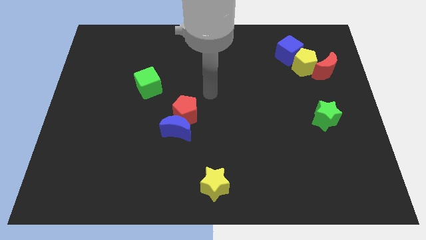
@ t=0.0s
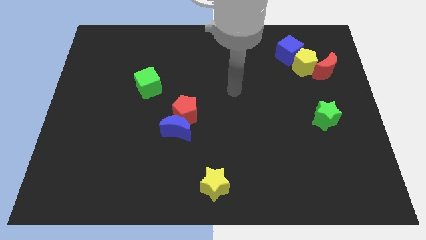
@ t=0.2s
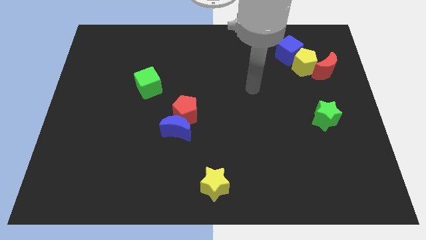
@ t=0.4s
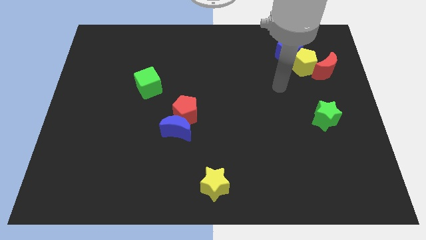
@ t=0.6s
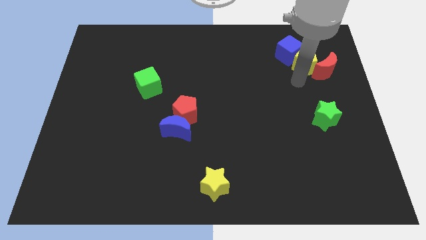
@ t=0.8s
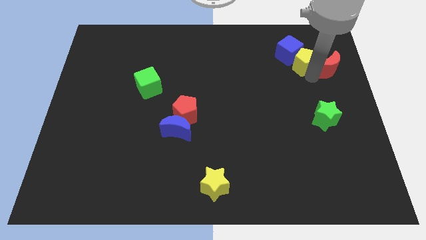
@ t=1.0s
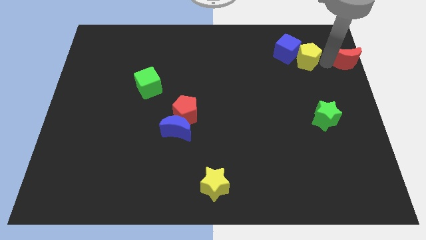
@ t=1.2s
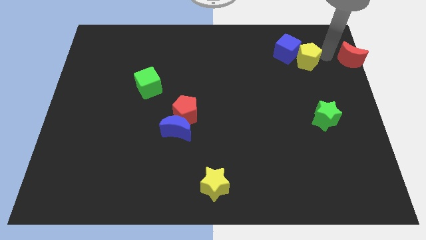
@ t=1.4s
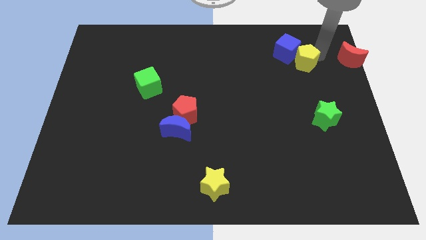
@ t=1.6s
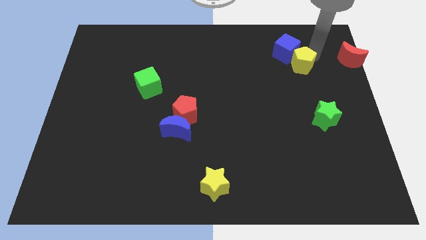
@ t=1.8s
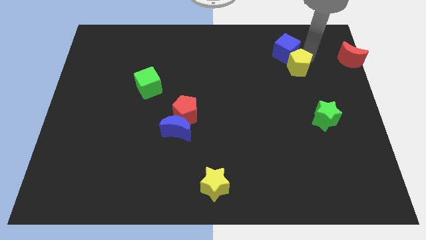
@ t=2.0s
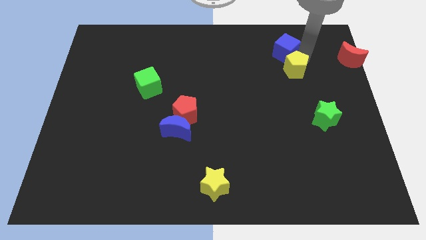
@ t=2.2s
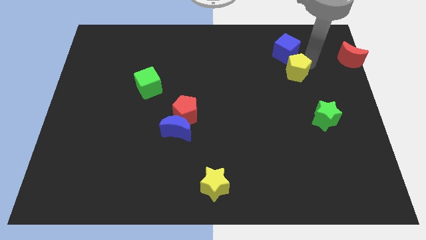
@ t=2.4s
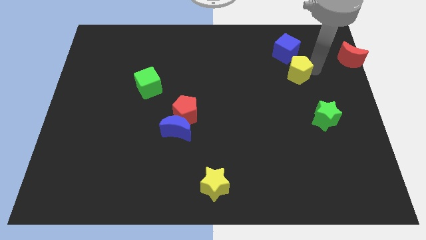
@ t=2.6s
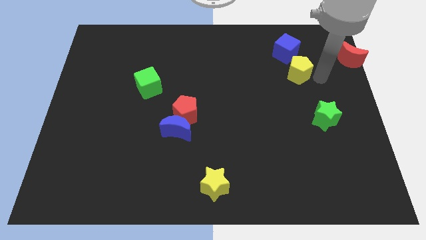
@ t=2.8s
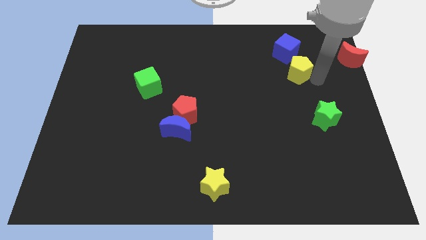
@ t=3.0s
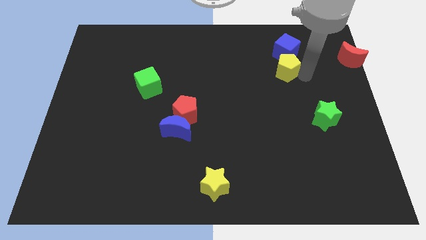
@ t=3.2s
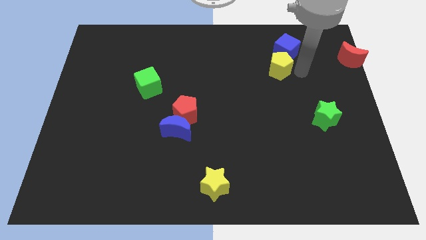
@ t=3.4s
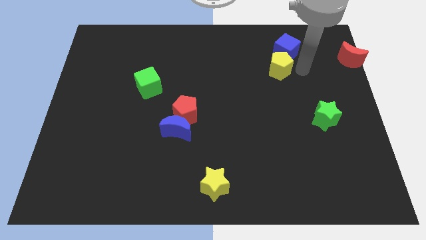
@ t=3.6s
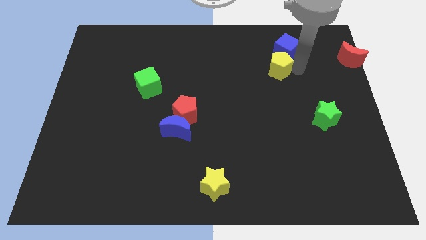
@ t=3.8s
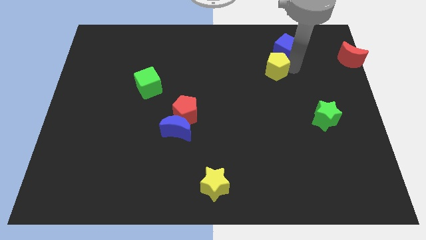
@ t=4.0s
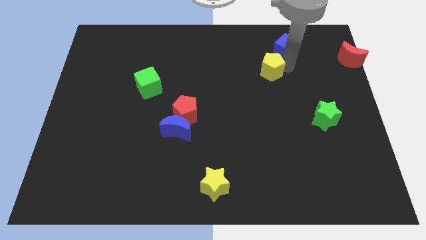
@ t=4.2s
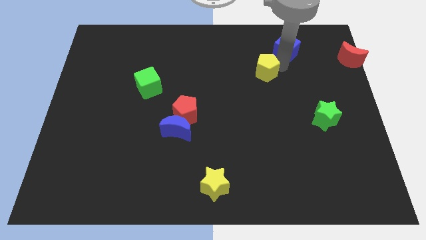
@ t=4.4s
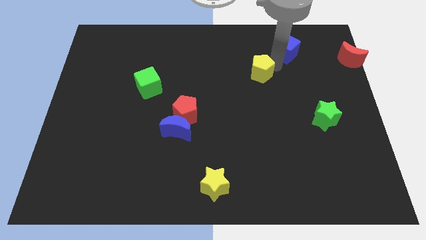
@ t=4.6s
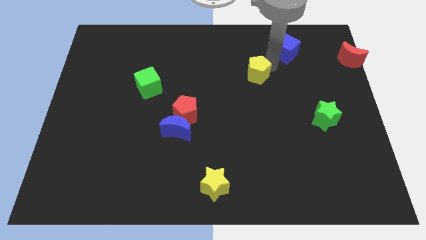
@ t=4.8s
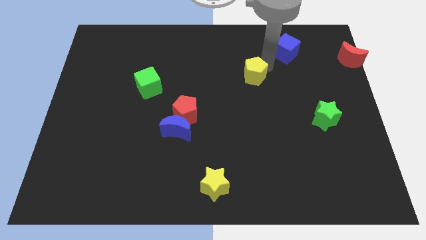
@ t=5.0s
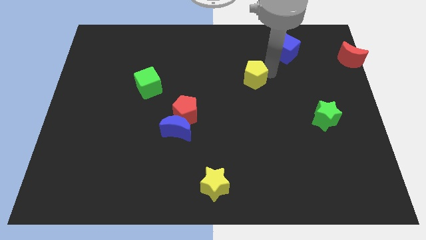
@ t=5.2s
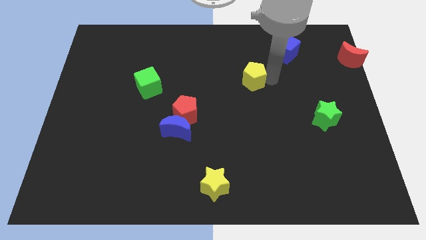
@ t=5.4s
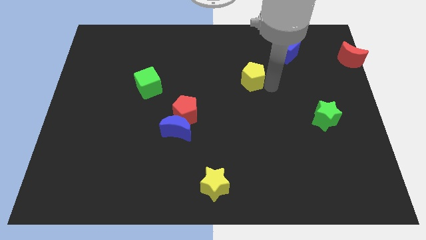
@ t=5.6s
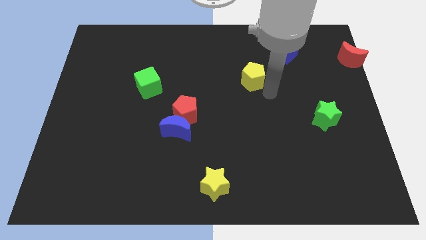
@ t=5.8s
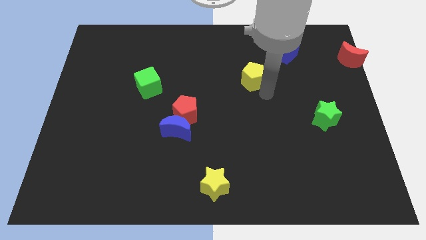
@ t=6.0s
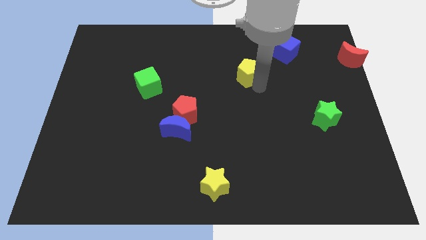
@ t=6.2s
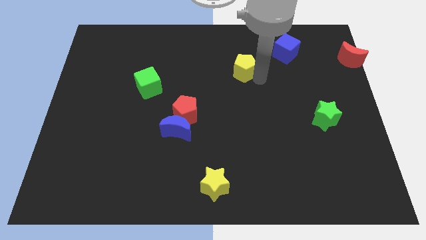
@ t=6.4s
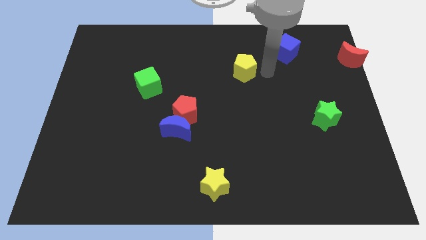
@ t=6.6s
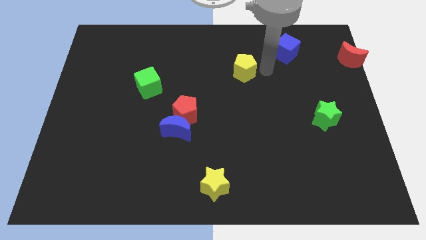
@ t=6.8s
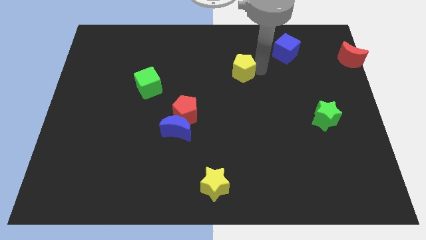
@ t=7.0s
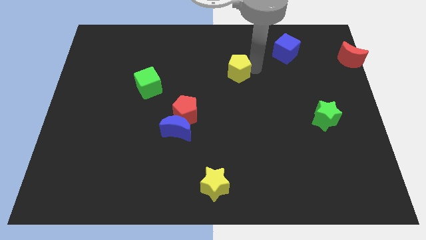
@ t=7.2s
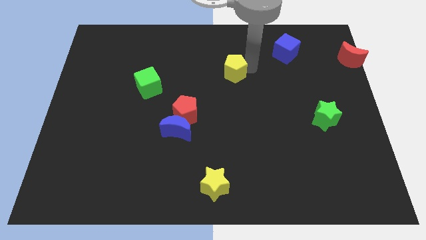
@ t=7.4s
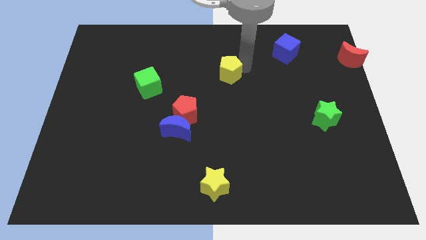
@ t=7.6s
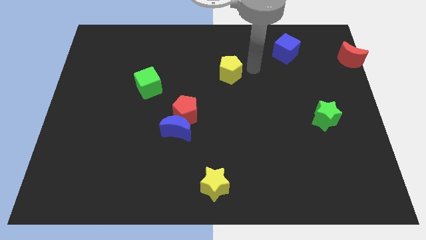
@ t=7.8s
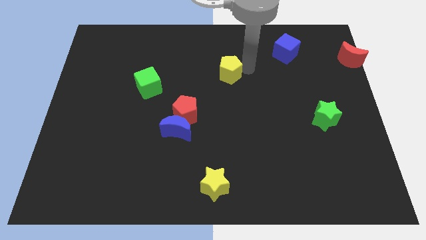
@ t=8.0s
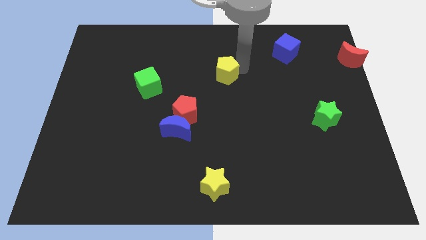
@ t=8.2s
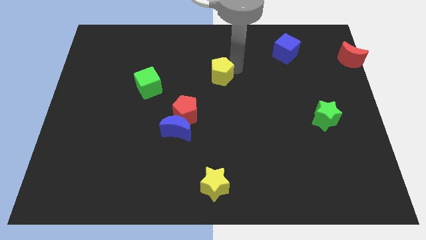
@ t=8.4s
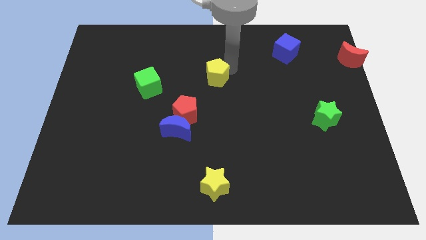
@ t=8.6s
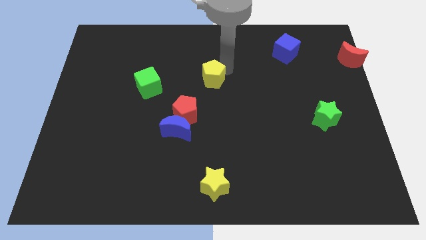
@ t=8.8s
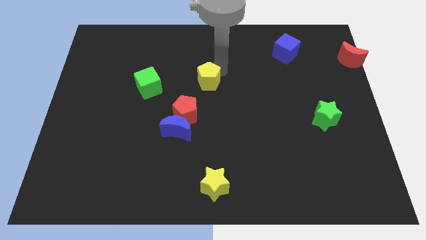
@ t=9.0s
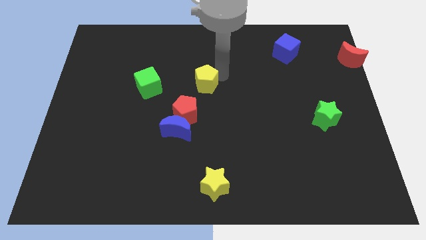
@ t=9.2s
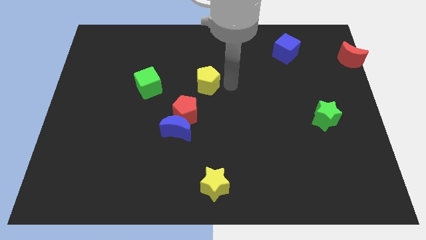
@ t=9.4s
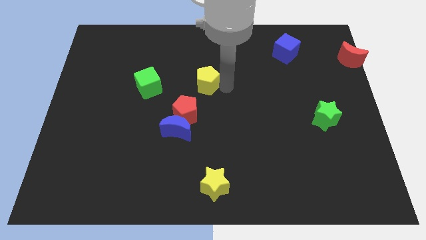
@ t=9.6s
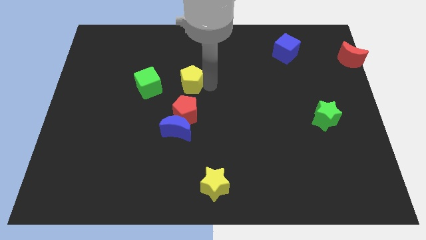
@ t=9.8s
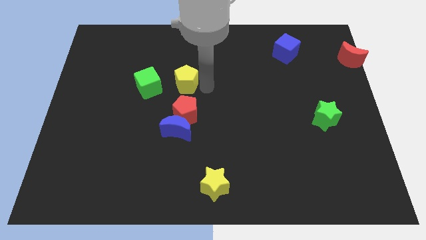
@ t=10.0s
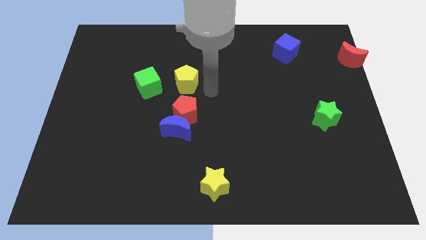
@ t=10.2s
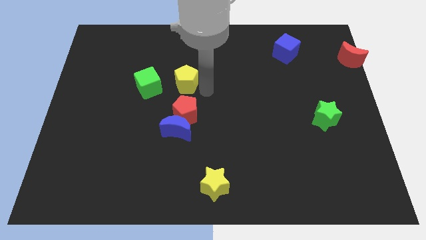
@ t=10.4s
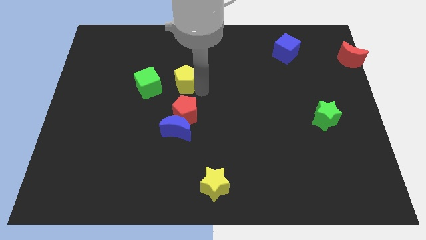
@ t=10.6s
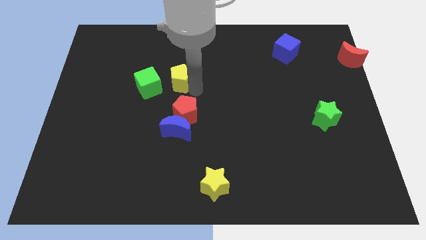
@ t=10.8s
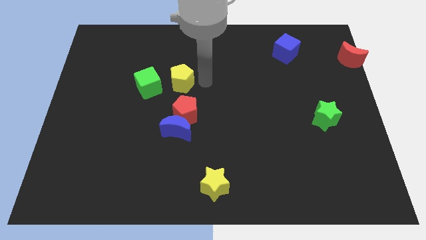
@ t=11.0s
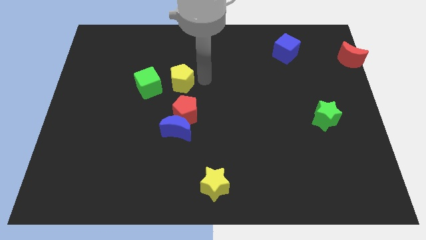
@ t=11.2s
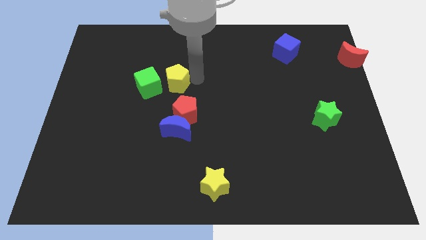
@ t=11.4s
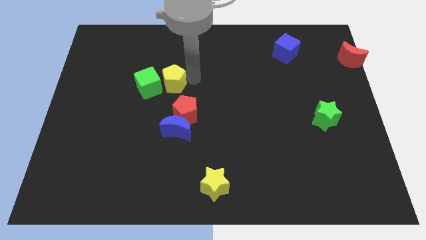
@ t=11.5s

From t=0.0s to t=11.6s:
move the yellow pentagon to the green cube
